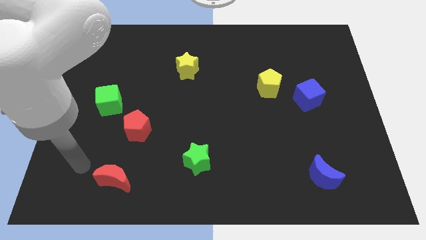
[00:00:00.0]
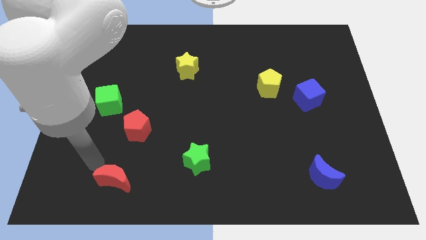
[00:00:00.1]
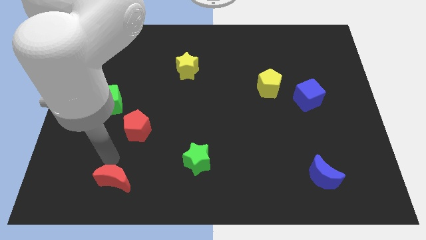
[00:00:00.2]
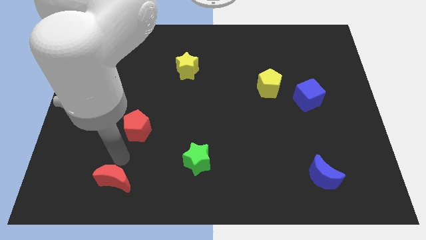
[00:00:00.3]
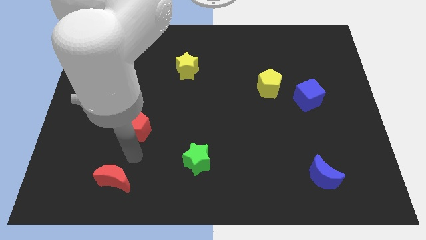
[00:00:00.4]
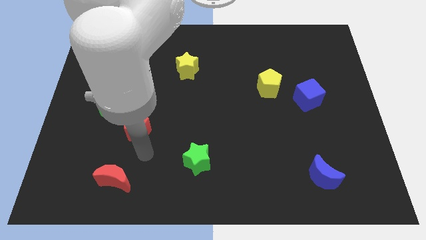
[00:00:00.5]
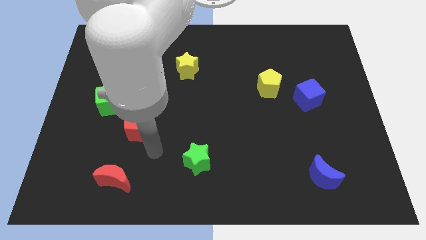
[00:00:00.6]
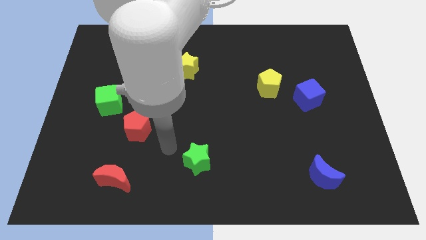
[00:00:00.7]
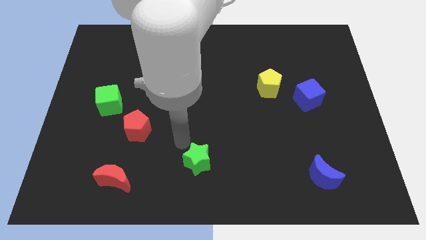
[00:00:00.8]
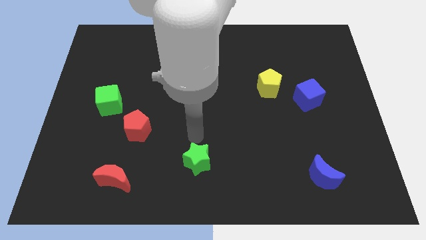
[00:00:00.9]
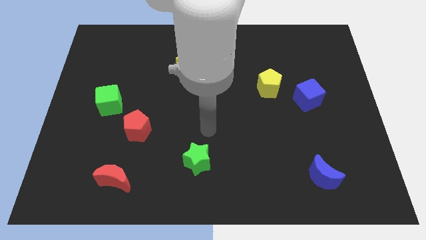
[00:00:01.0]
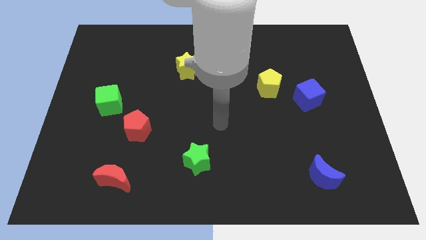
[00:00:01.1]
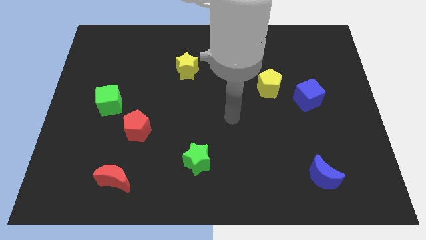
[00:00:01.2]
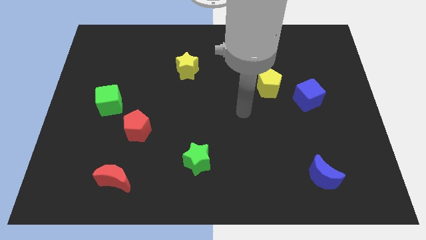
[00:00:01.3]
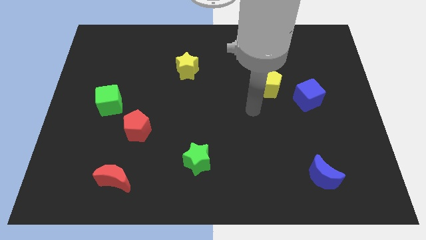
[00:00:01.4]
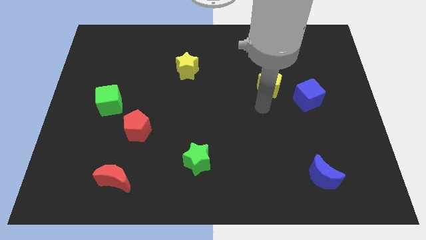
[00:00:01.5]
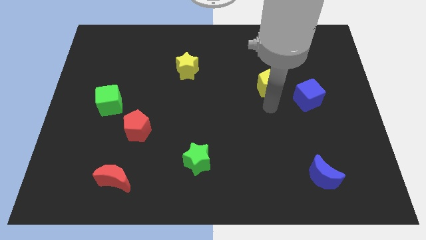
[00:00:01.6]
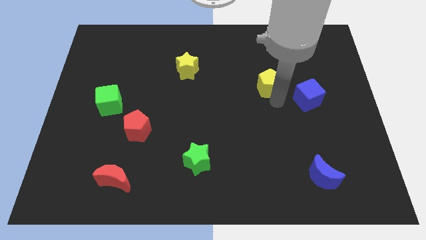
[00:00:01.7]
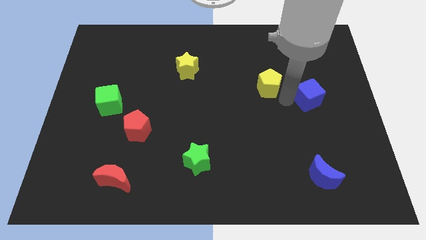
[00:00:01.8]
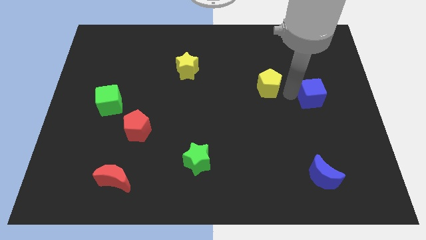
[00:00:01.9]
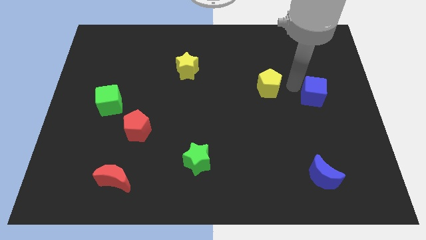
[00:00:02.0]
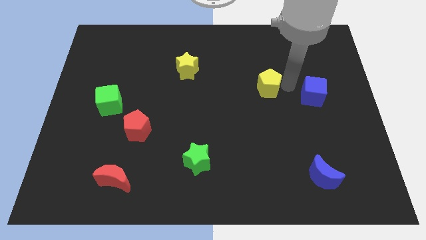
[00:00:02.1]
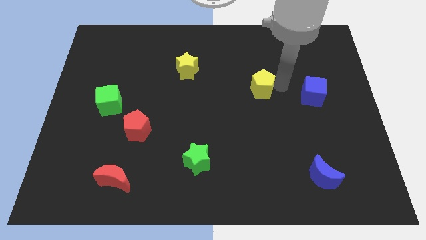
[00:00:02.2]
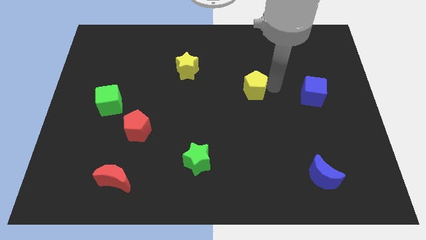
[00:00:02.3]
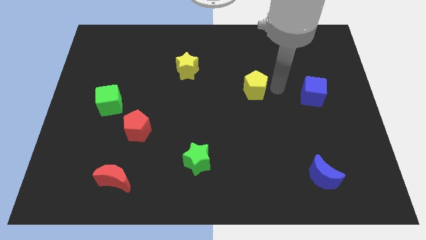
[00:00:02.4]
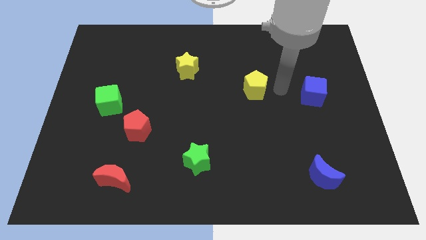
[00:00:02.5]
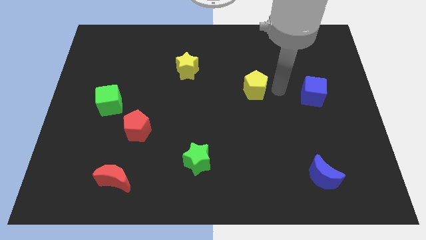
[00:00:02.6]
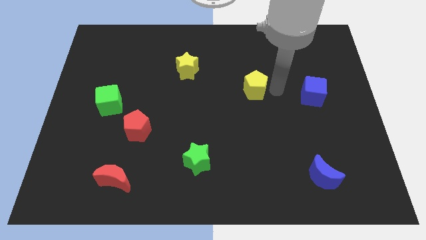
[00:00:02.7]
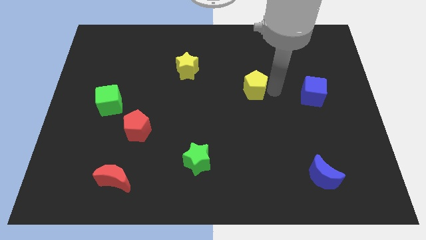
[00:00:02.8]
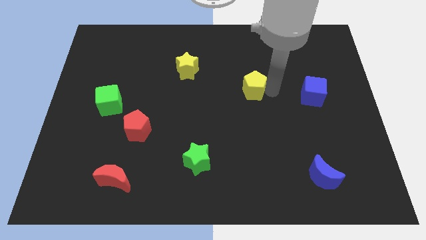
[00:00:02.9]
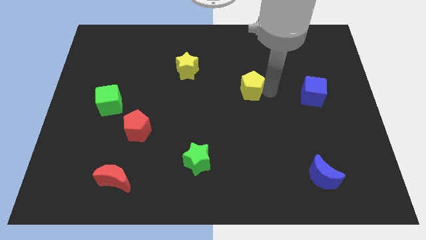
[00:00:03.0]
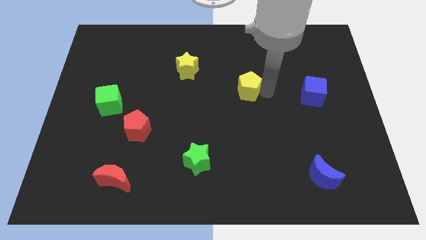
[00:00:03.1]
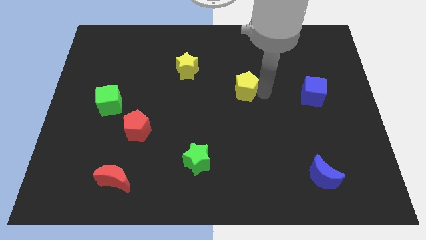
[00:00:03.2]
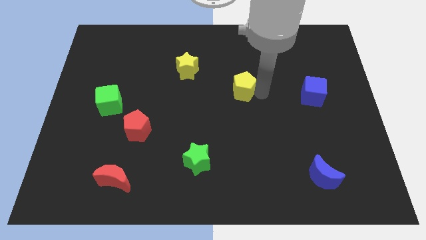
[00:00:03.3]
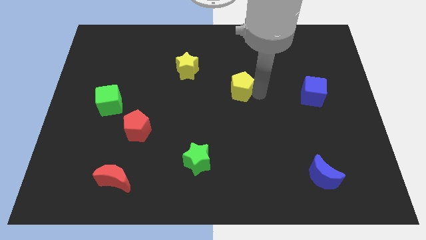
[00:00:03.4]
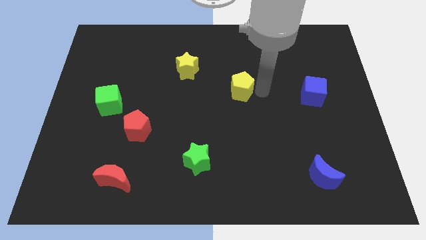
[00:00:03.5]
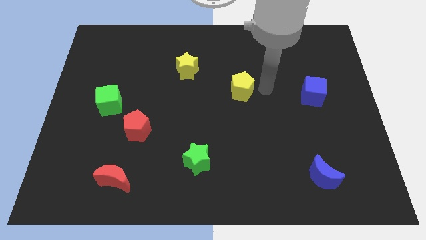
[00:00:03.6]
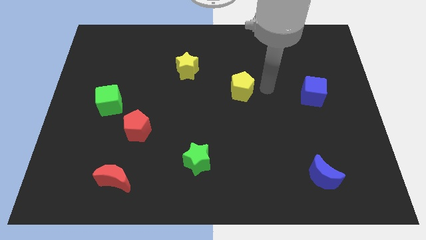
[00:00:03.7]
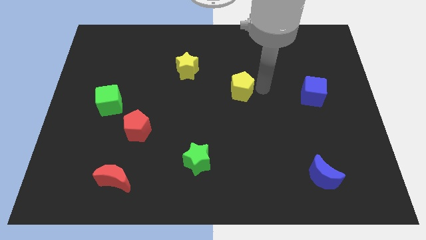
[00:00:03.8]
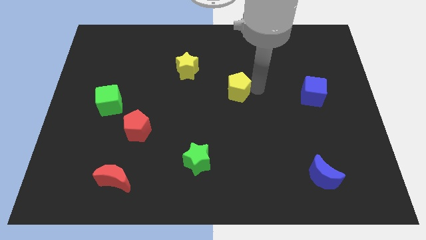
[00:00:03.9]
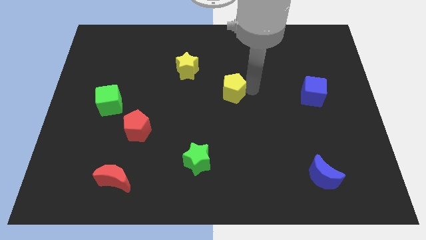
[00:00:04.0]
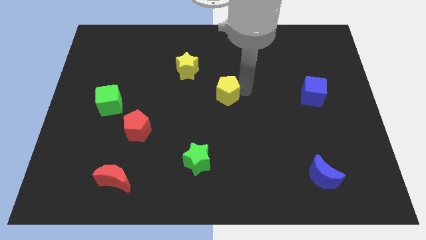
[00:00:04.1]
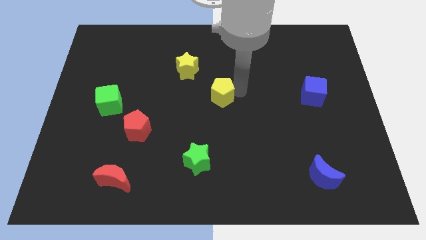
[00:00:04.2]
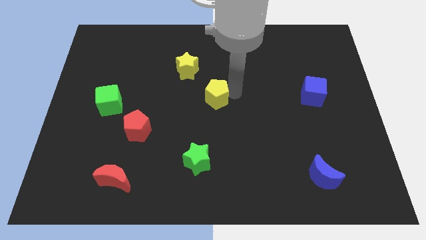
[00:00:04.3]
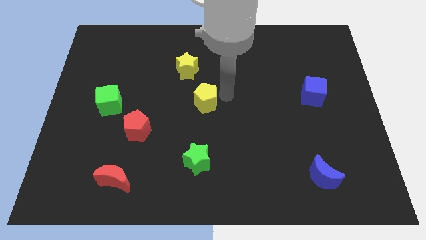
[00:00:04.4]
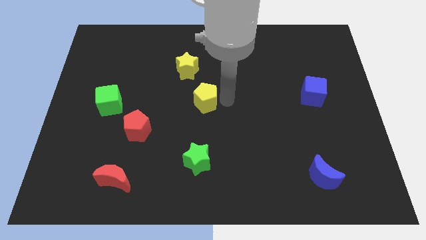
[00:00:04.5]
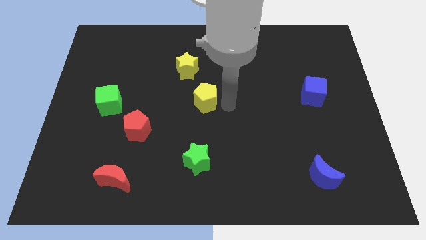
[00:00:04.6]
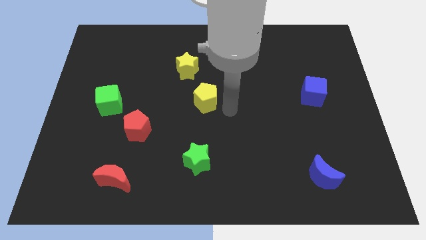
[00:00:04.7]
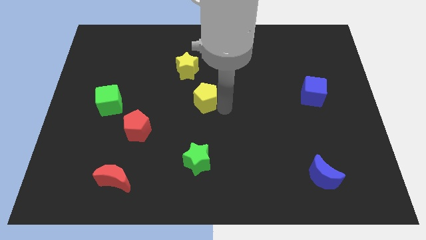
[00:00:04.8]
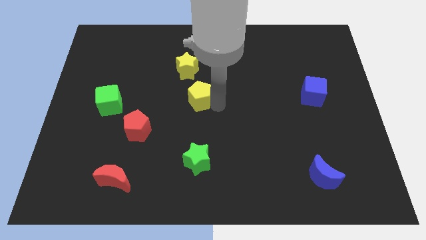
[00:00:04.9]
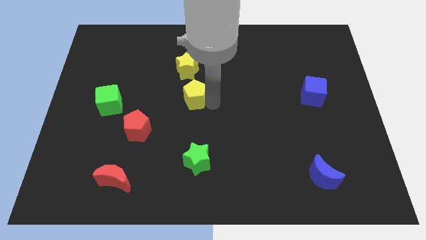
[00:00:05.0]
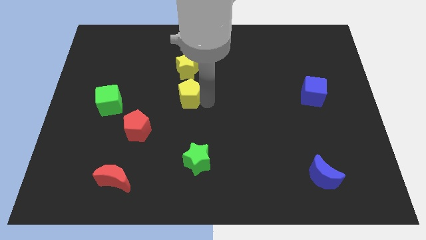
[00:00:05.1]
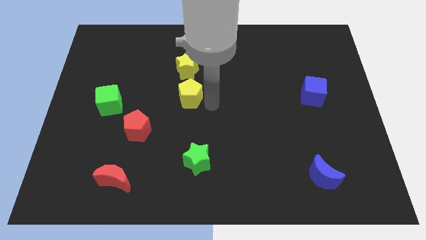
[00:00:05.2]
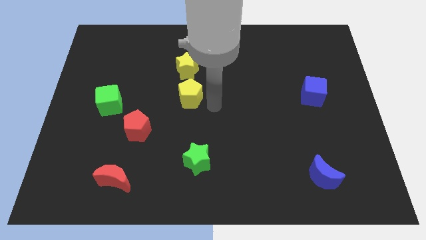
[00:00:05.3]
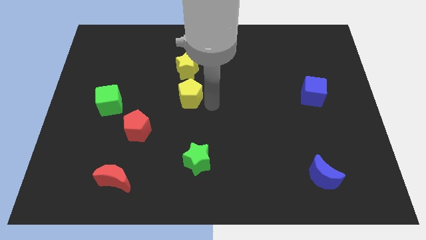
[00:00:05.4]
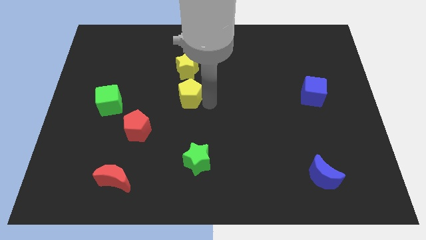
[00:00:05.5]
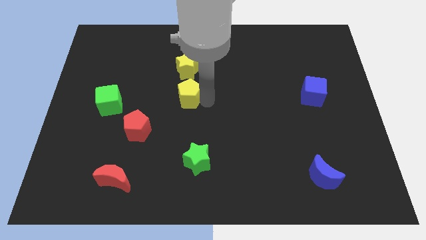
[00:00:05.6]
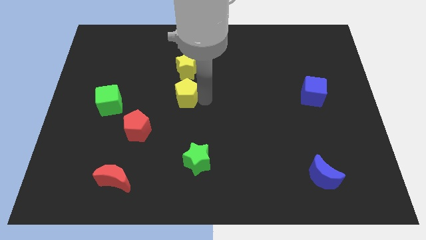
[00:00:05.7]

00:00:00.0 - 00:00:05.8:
move the yellow pentagon to the left

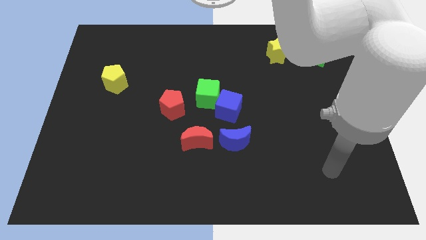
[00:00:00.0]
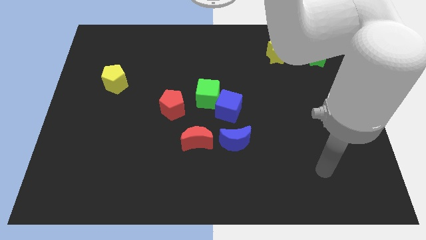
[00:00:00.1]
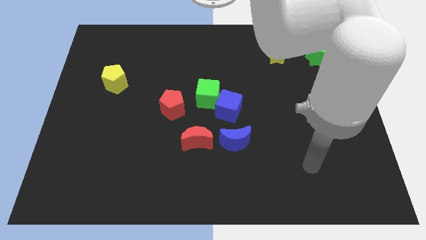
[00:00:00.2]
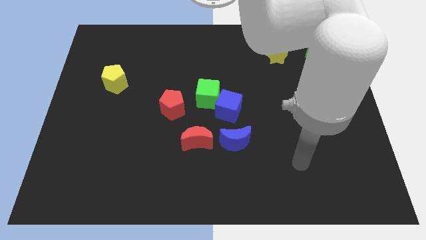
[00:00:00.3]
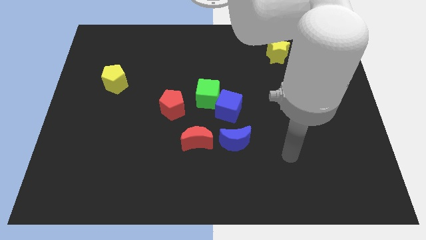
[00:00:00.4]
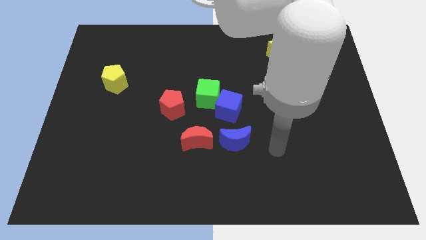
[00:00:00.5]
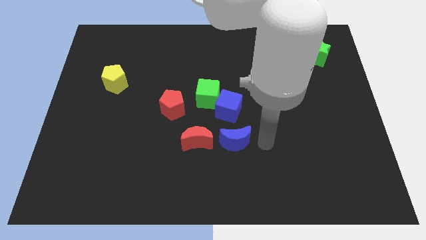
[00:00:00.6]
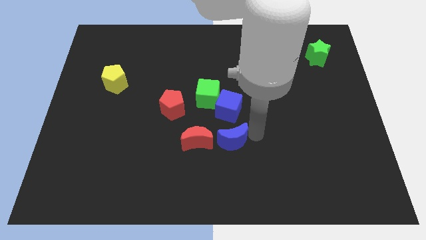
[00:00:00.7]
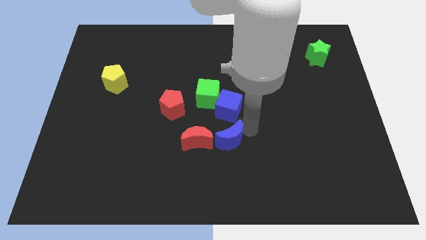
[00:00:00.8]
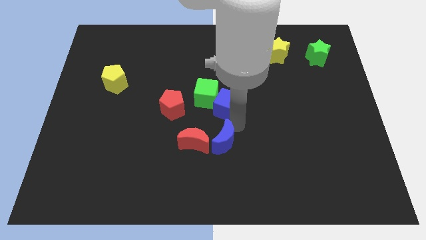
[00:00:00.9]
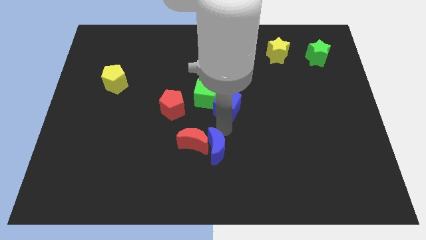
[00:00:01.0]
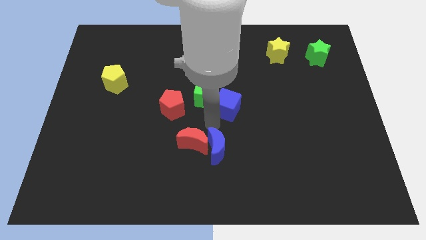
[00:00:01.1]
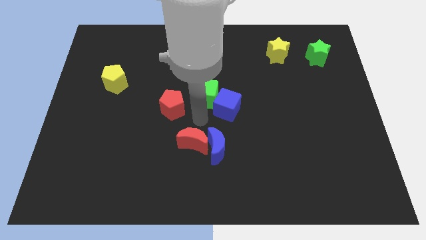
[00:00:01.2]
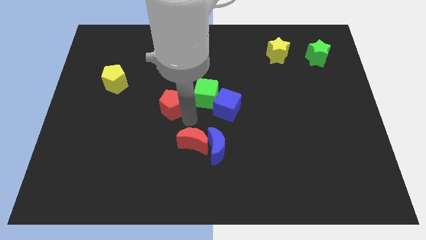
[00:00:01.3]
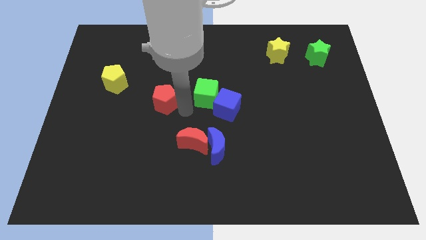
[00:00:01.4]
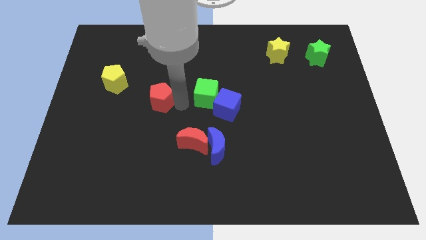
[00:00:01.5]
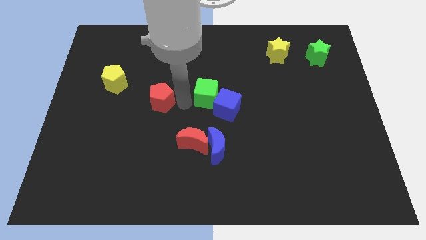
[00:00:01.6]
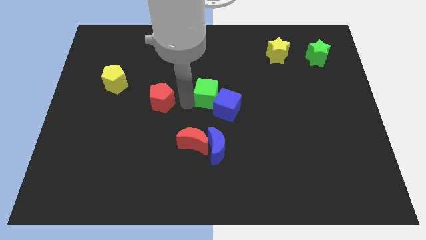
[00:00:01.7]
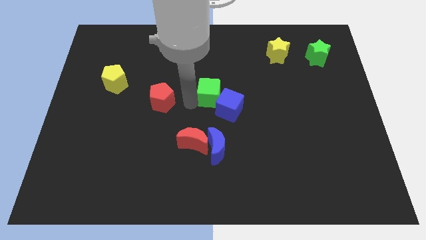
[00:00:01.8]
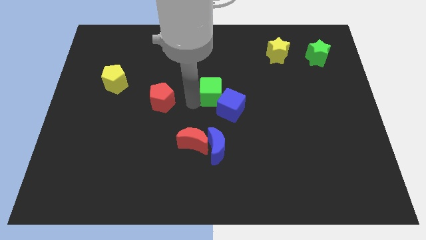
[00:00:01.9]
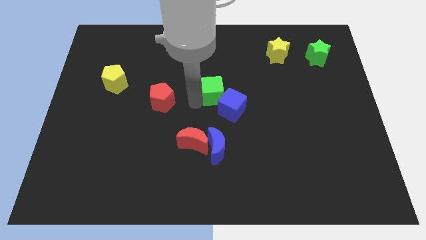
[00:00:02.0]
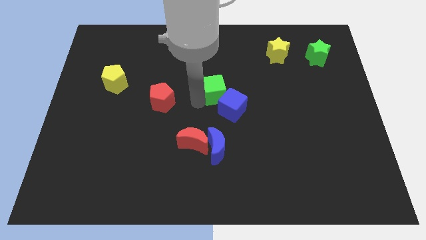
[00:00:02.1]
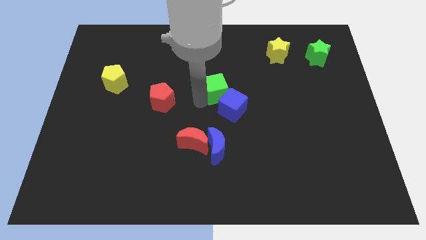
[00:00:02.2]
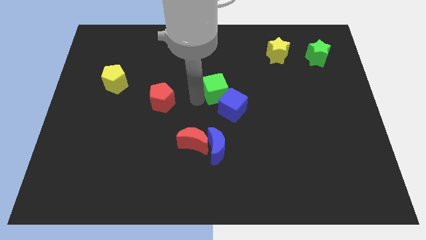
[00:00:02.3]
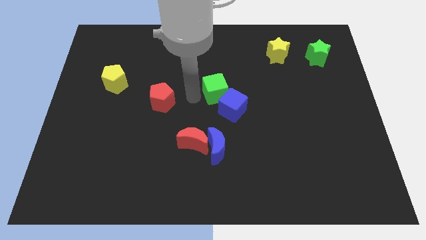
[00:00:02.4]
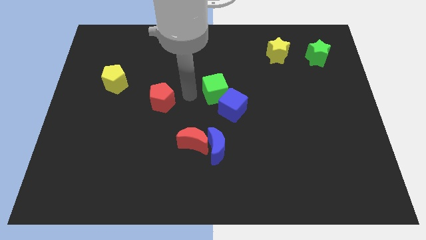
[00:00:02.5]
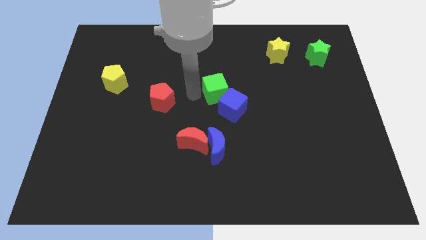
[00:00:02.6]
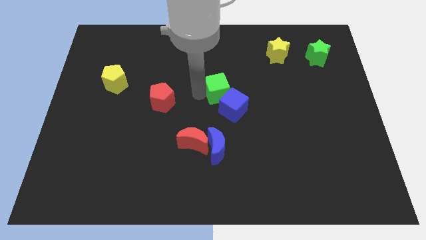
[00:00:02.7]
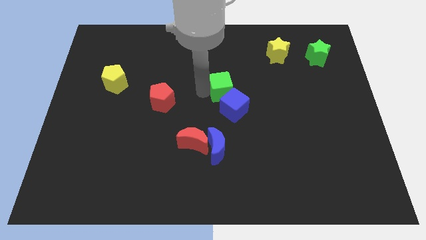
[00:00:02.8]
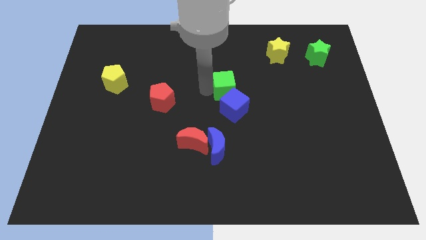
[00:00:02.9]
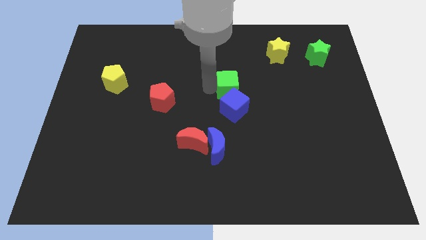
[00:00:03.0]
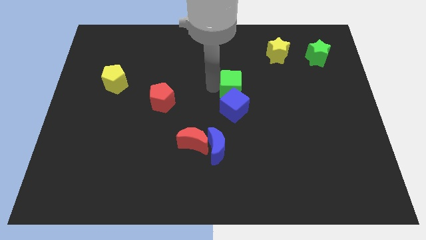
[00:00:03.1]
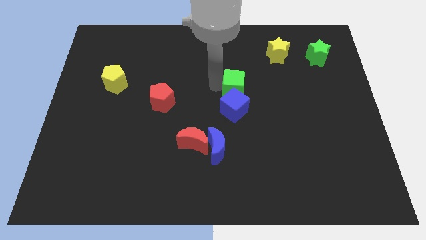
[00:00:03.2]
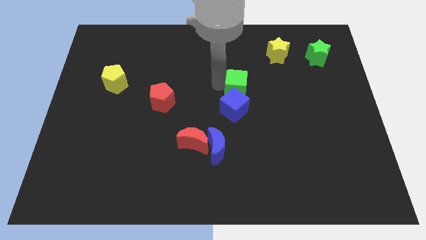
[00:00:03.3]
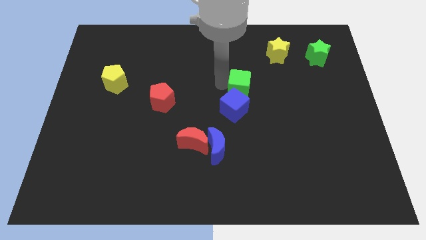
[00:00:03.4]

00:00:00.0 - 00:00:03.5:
push the green cube somewhat to the right
